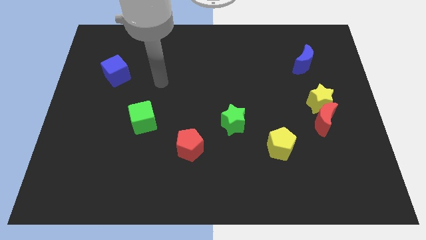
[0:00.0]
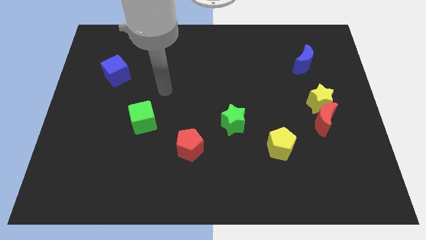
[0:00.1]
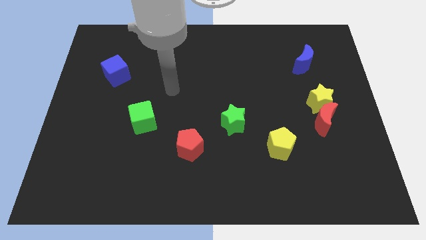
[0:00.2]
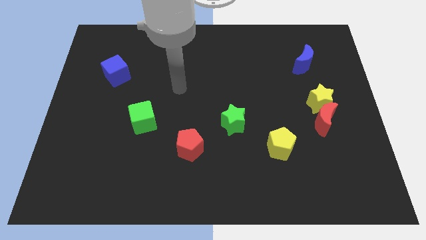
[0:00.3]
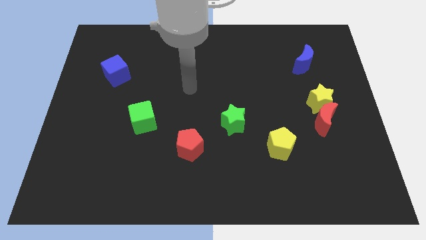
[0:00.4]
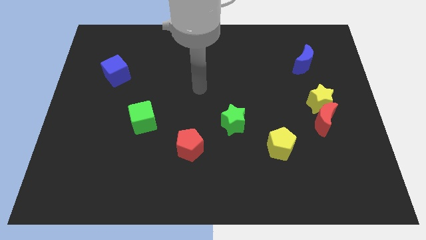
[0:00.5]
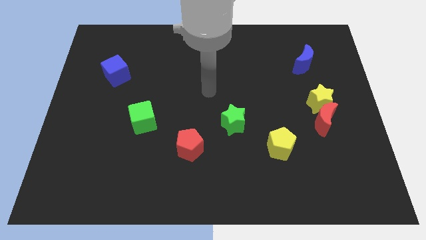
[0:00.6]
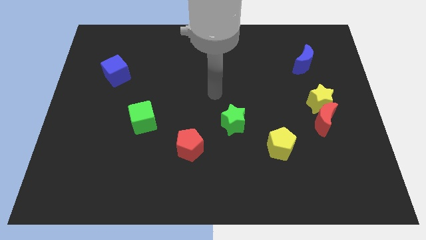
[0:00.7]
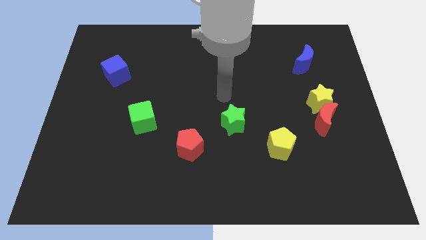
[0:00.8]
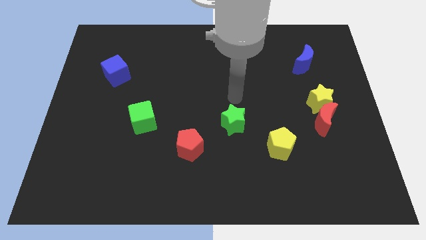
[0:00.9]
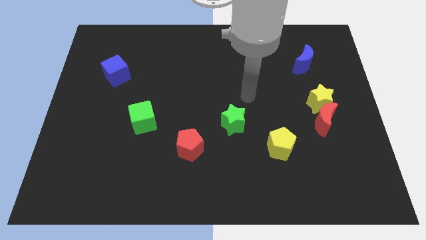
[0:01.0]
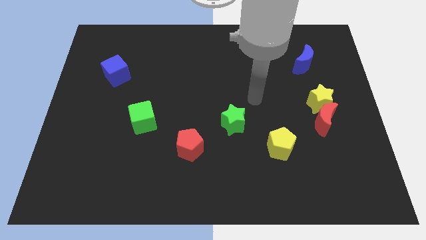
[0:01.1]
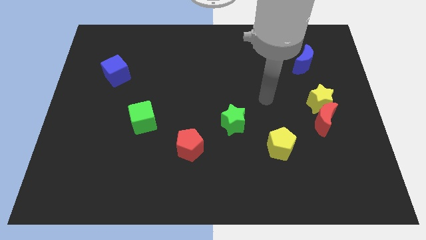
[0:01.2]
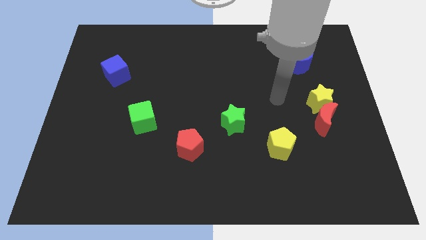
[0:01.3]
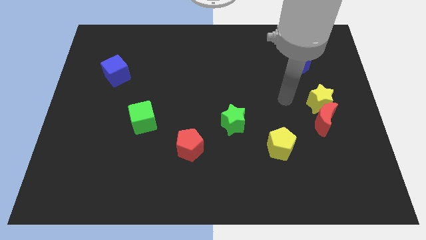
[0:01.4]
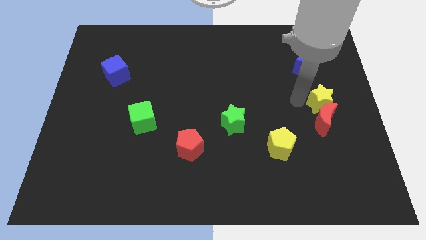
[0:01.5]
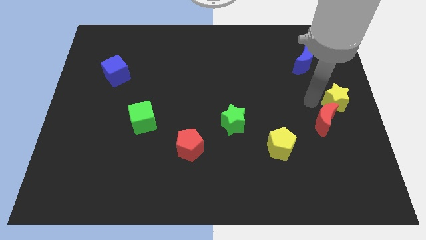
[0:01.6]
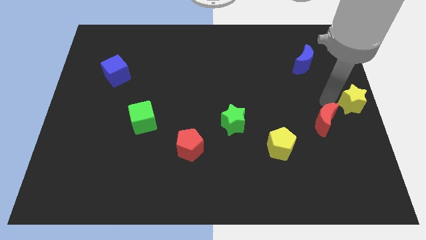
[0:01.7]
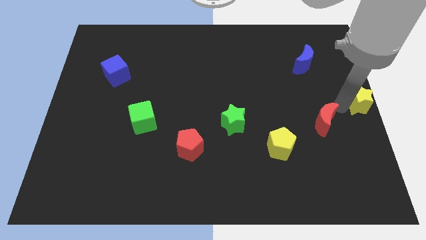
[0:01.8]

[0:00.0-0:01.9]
pull the red moon apart from the yellow star

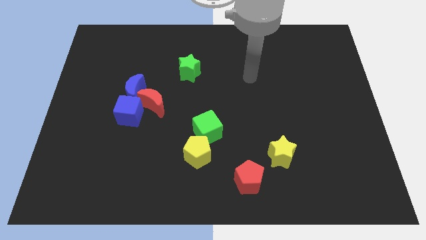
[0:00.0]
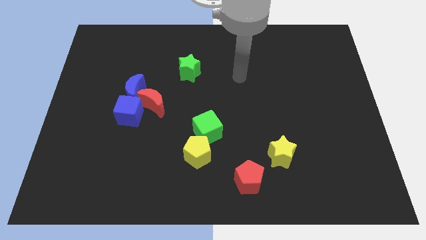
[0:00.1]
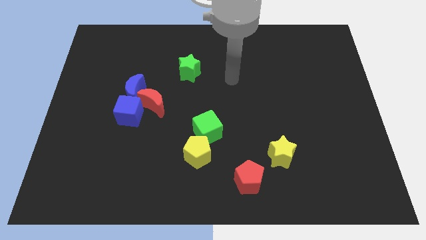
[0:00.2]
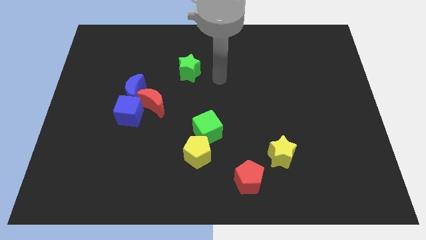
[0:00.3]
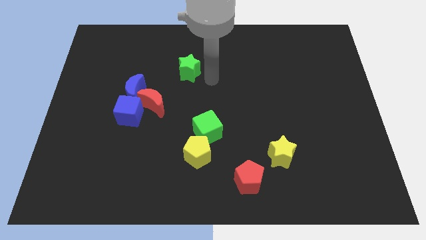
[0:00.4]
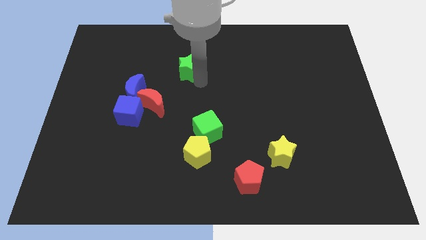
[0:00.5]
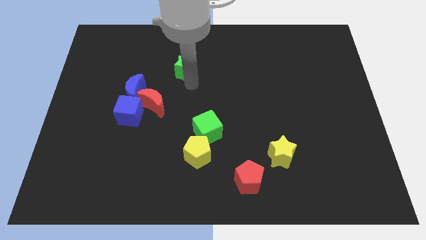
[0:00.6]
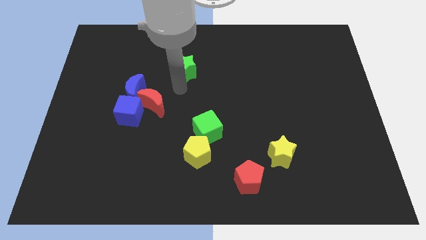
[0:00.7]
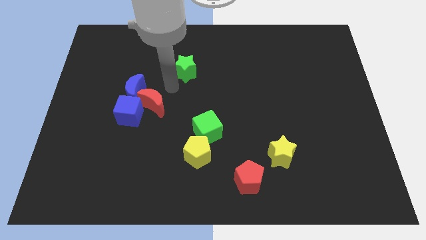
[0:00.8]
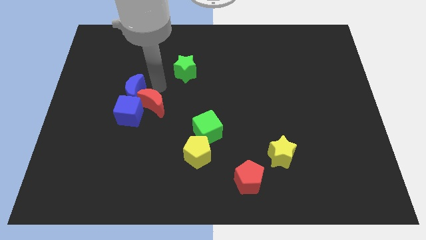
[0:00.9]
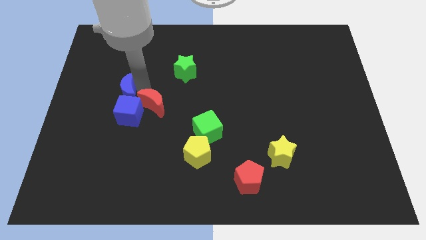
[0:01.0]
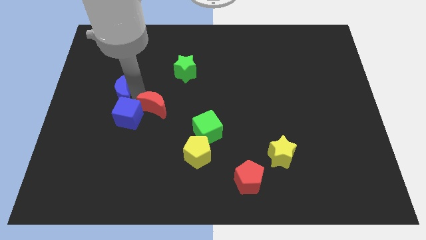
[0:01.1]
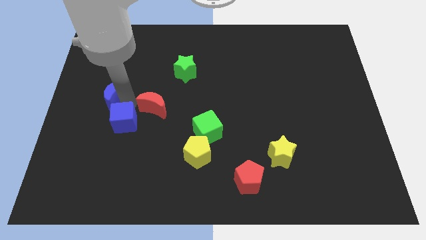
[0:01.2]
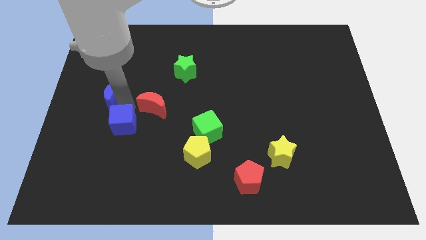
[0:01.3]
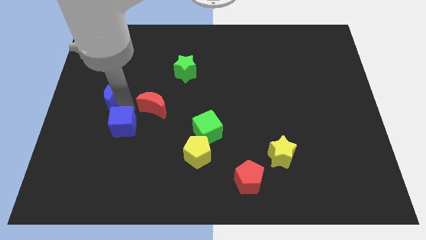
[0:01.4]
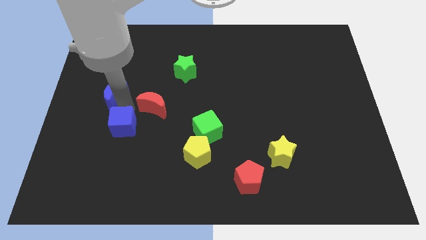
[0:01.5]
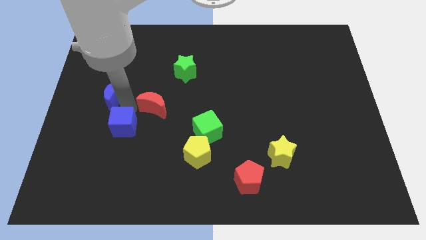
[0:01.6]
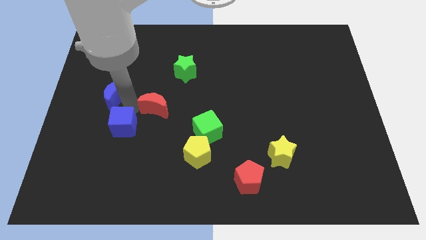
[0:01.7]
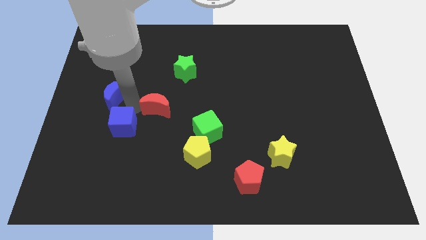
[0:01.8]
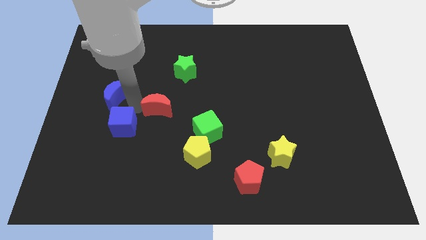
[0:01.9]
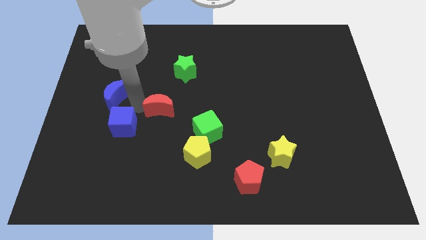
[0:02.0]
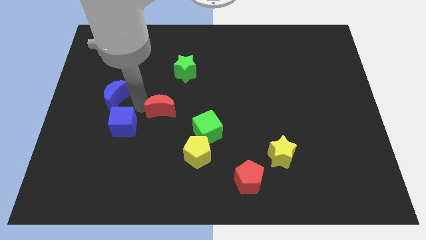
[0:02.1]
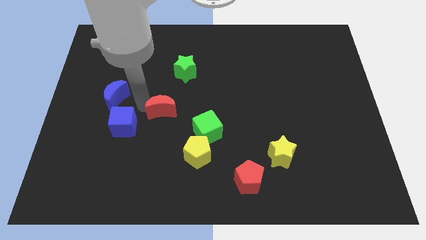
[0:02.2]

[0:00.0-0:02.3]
separate the red moon from the blue cube and blue moon

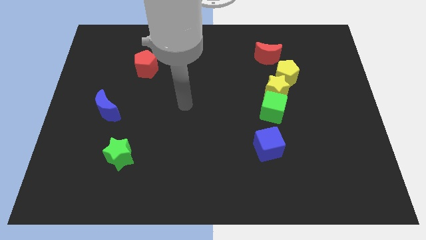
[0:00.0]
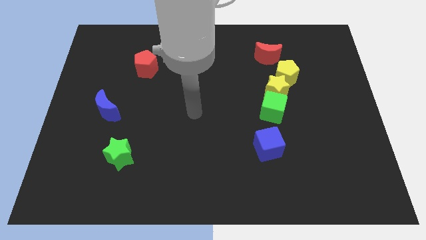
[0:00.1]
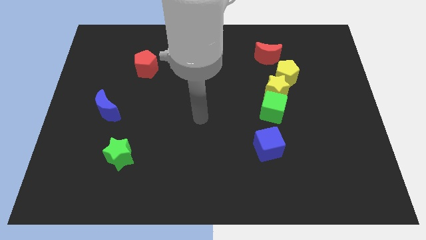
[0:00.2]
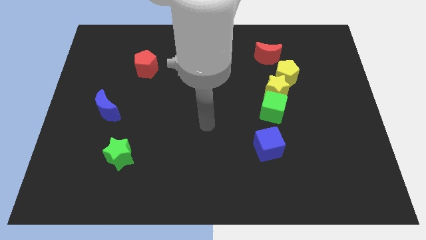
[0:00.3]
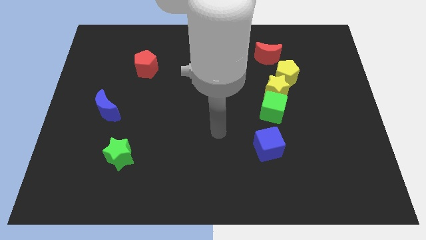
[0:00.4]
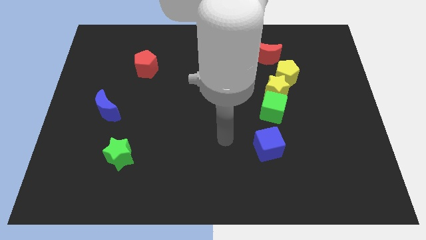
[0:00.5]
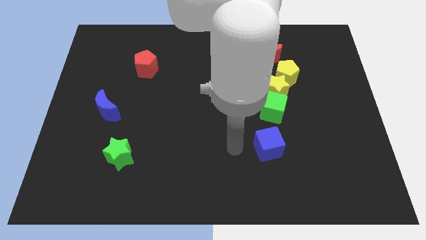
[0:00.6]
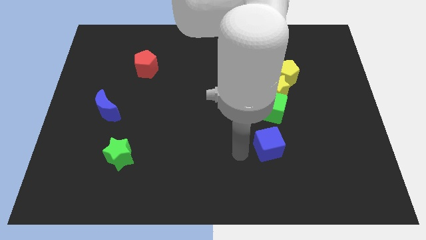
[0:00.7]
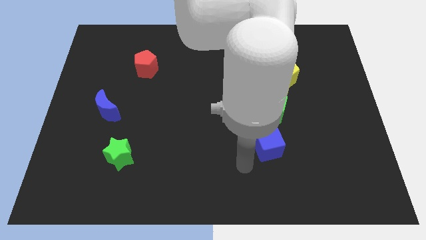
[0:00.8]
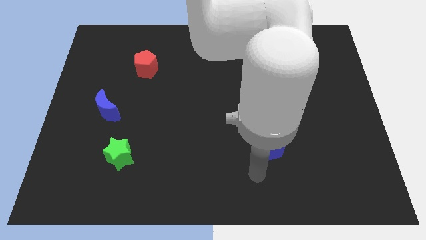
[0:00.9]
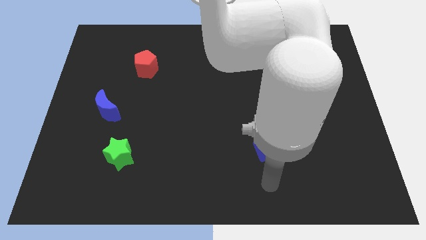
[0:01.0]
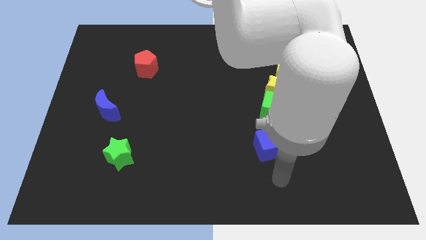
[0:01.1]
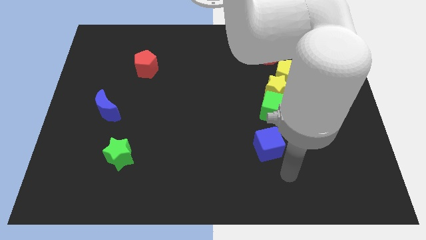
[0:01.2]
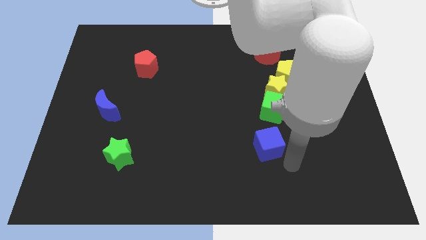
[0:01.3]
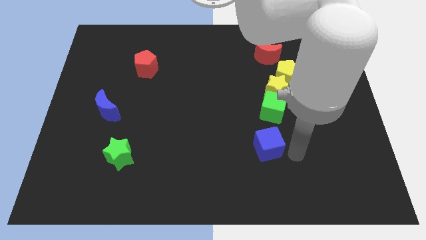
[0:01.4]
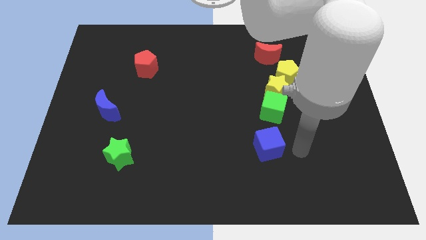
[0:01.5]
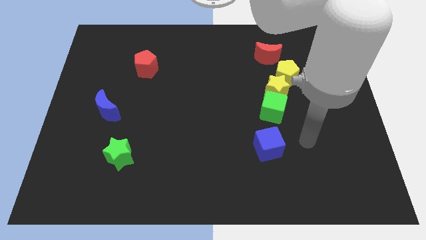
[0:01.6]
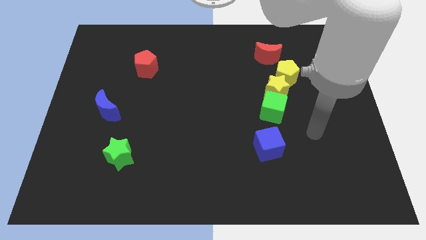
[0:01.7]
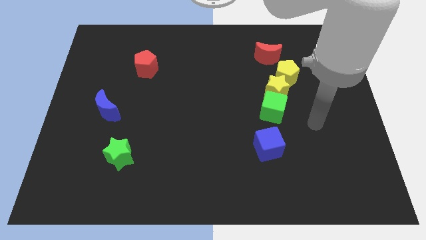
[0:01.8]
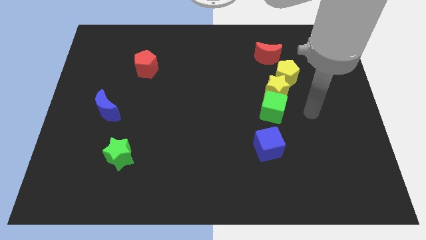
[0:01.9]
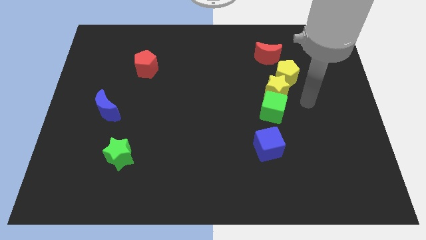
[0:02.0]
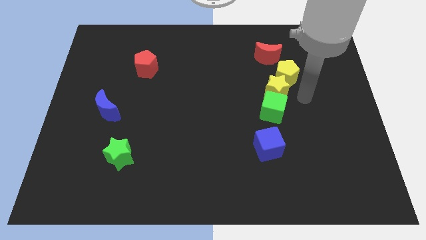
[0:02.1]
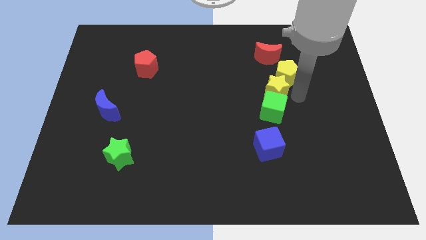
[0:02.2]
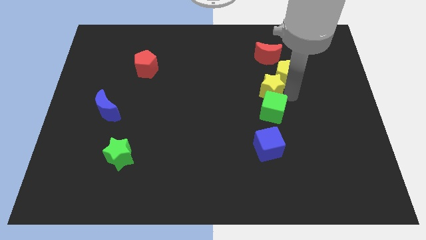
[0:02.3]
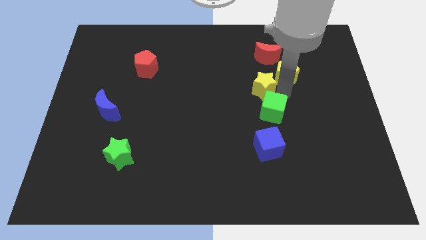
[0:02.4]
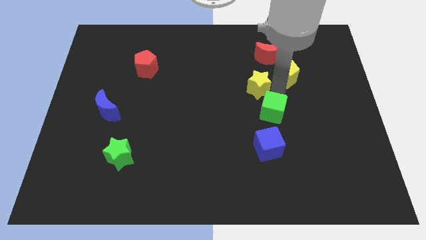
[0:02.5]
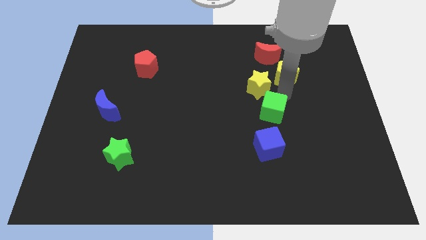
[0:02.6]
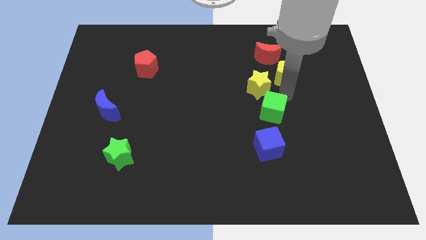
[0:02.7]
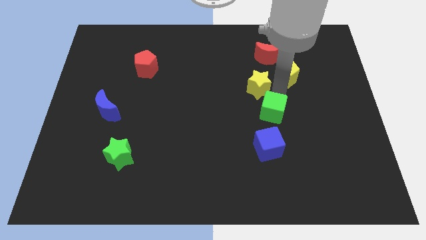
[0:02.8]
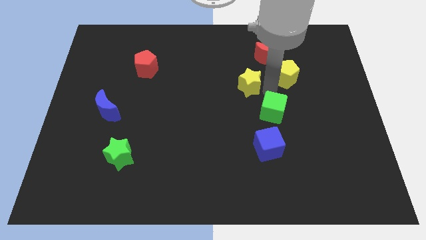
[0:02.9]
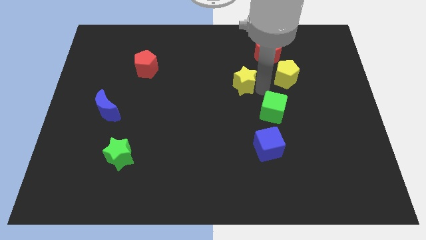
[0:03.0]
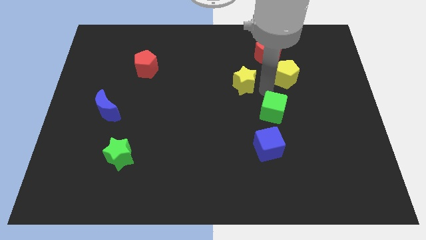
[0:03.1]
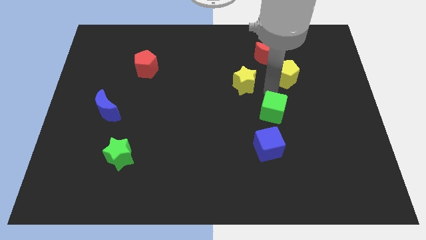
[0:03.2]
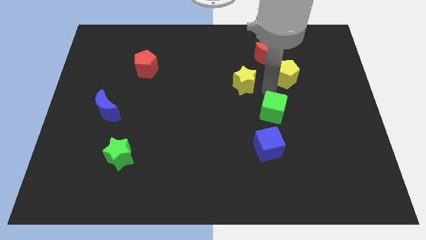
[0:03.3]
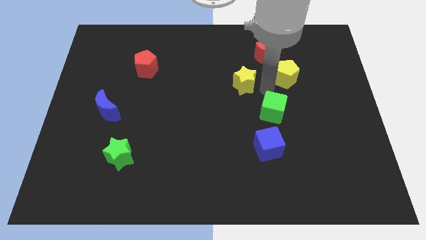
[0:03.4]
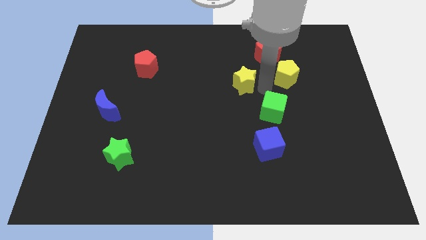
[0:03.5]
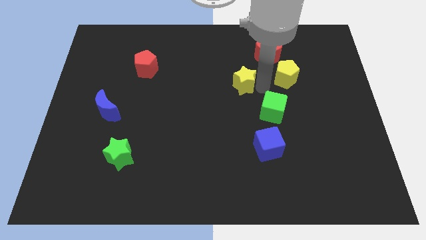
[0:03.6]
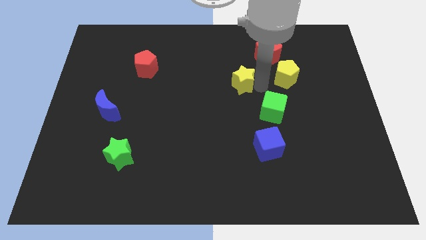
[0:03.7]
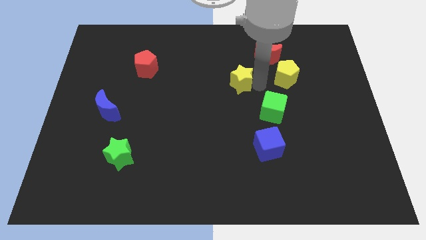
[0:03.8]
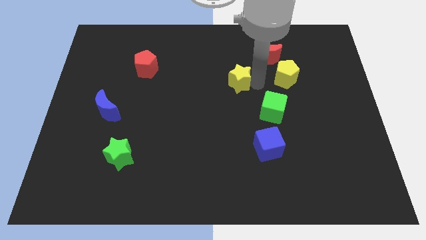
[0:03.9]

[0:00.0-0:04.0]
separate the yellow star from the yellow pentagon and green cube

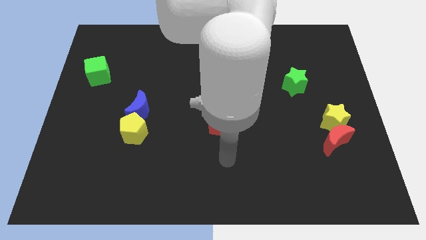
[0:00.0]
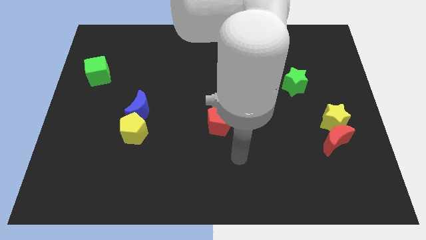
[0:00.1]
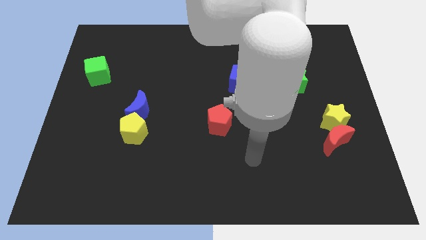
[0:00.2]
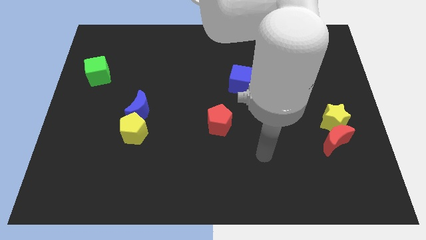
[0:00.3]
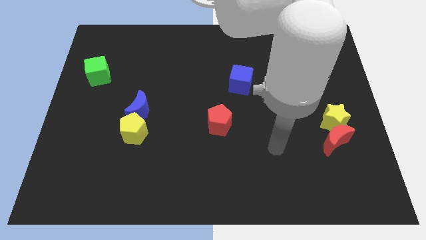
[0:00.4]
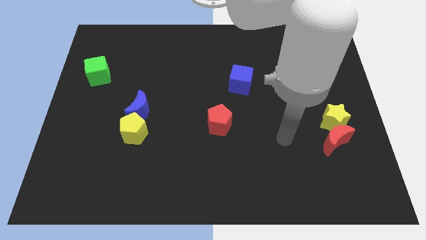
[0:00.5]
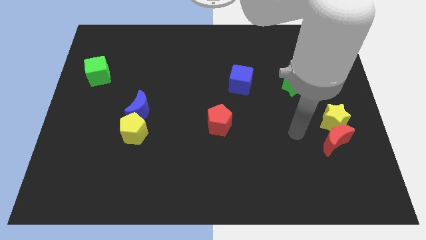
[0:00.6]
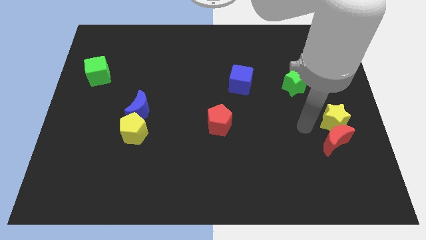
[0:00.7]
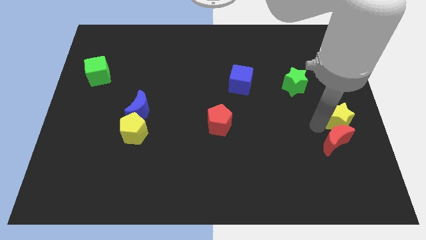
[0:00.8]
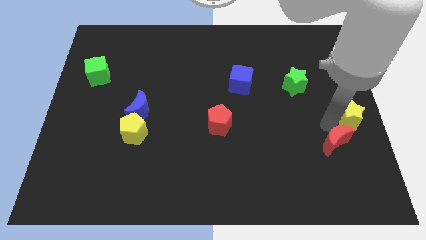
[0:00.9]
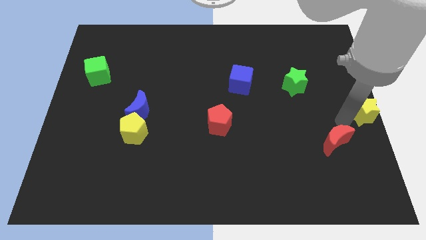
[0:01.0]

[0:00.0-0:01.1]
move the red moon away from the yellow star

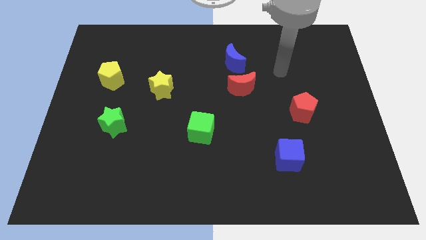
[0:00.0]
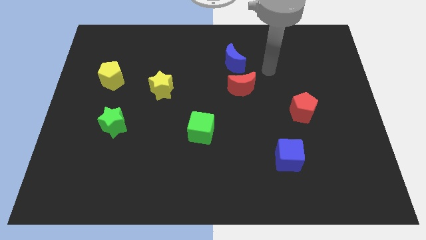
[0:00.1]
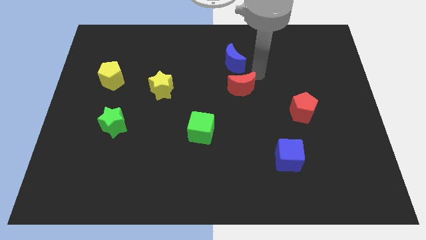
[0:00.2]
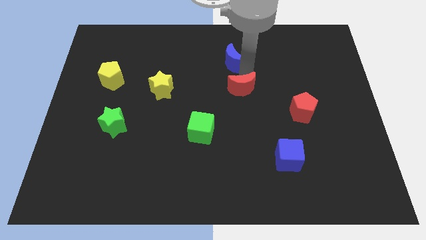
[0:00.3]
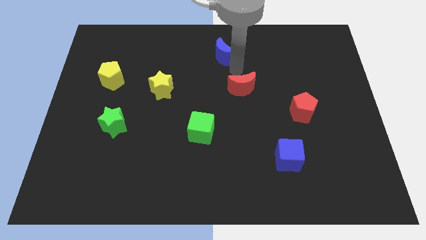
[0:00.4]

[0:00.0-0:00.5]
move the red moon away from the blue moon
